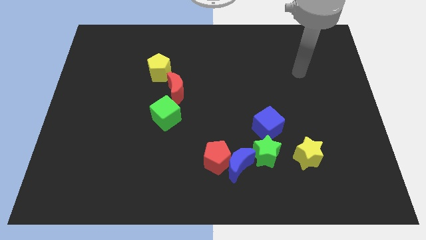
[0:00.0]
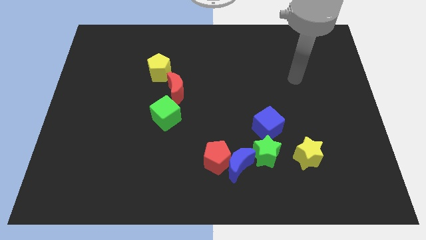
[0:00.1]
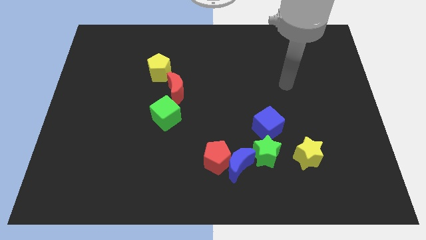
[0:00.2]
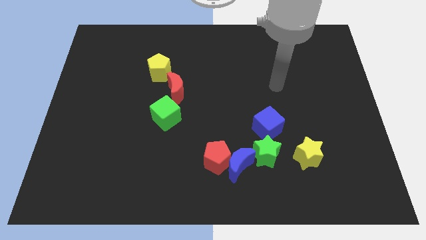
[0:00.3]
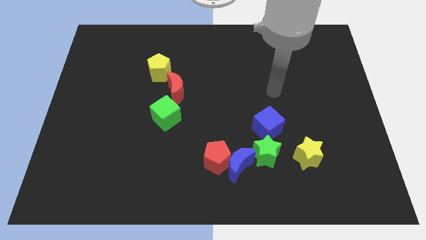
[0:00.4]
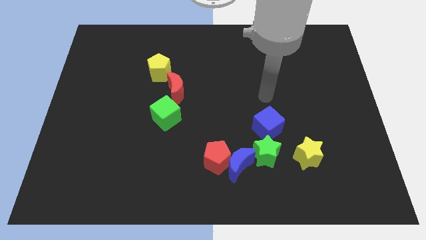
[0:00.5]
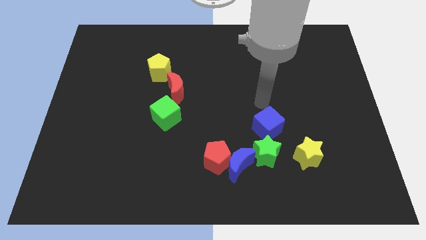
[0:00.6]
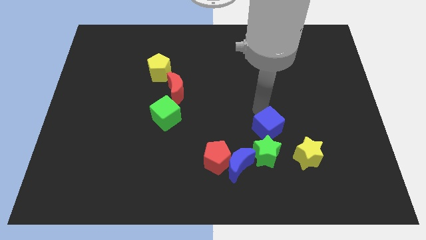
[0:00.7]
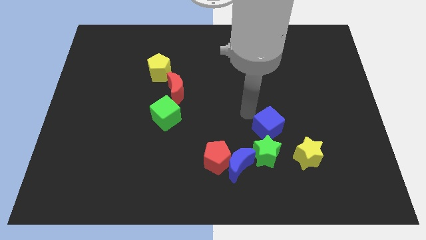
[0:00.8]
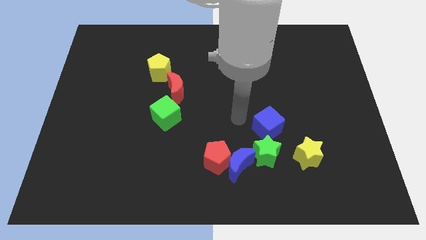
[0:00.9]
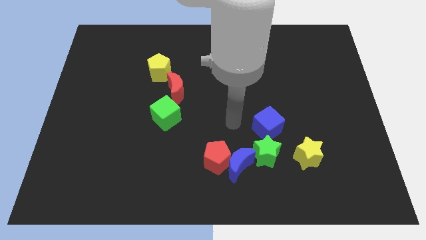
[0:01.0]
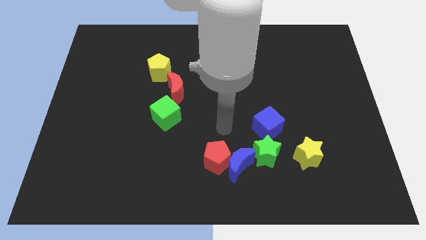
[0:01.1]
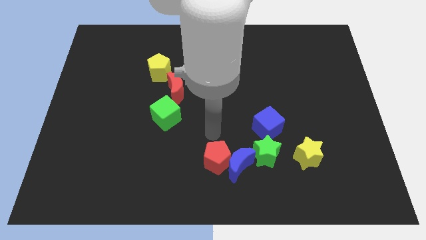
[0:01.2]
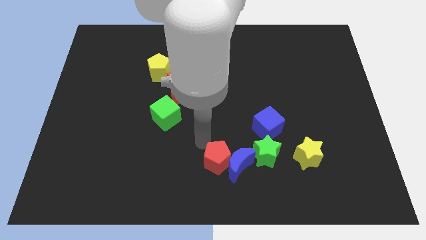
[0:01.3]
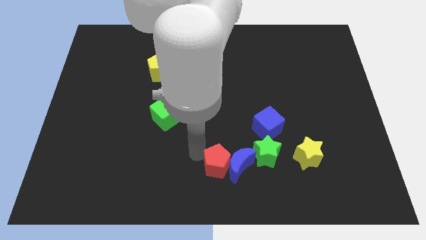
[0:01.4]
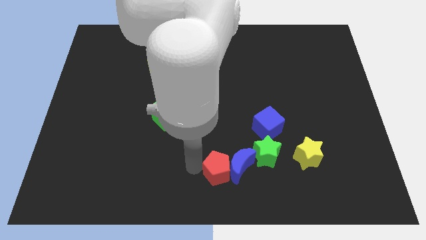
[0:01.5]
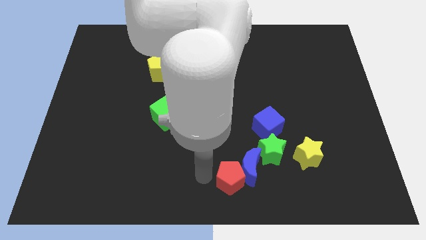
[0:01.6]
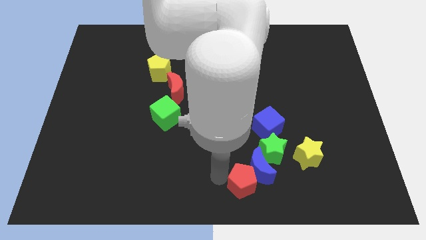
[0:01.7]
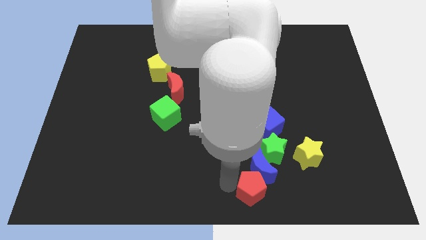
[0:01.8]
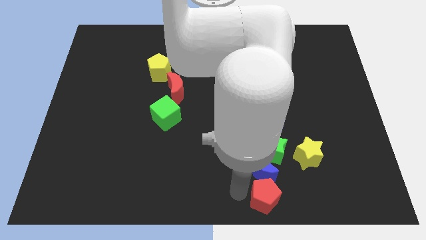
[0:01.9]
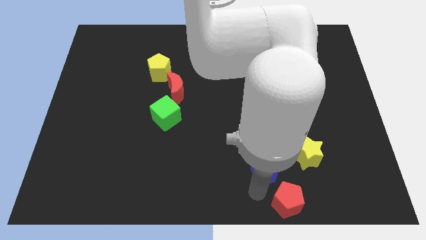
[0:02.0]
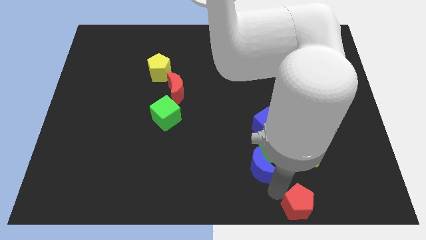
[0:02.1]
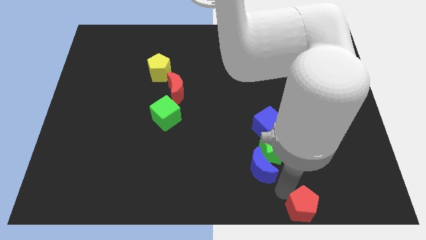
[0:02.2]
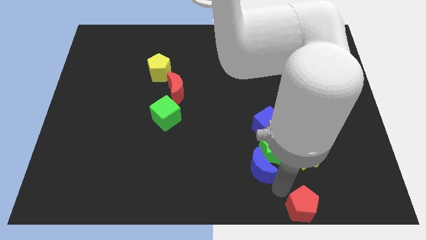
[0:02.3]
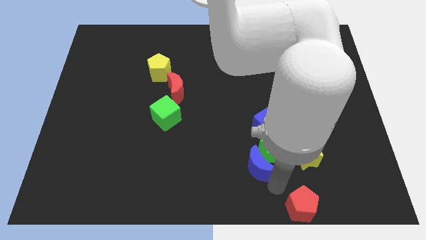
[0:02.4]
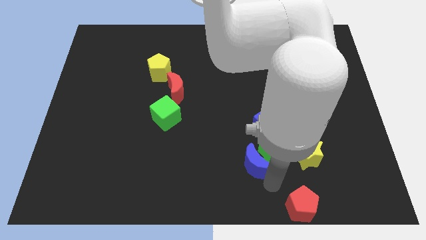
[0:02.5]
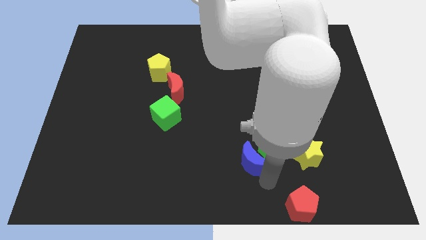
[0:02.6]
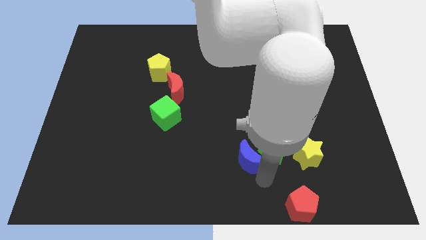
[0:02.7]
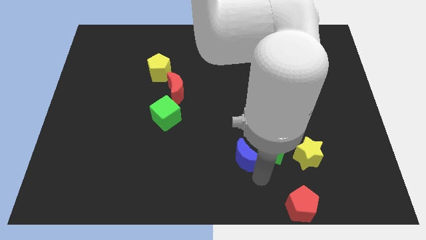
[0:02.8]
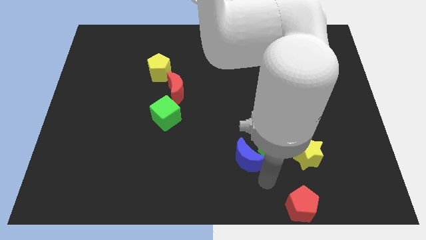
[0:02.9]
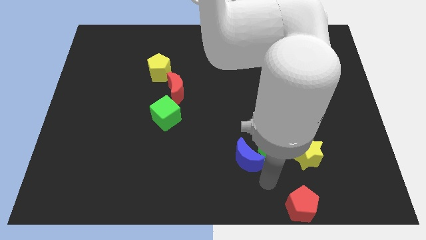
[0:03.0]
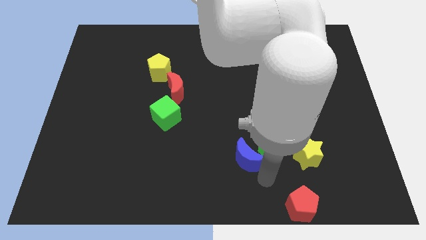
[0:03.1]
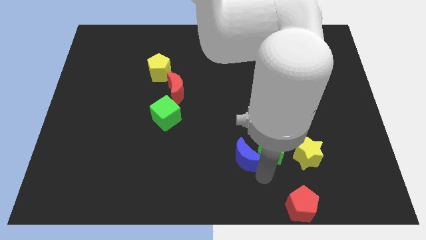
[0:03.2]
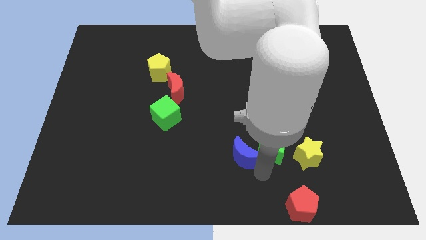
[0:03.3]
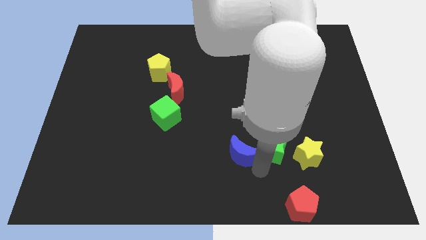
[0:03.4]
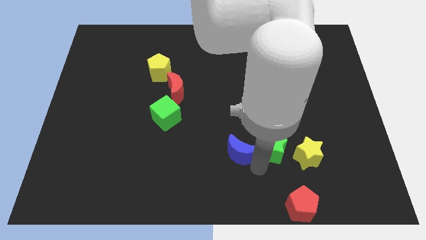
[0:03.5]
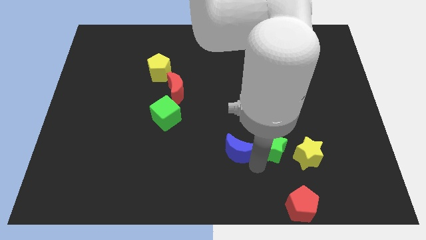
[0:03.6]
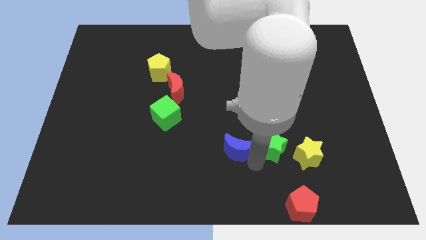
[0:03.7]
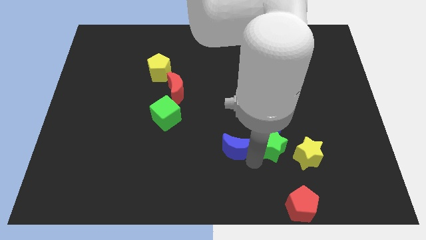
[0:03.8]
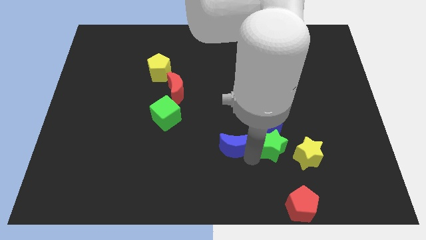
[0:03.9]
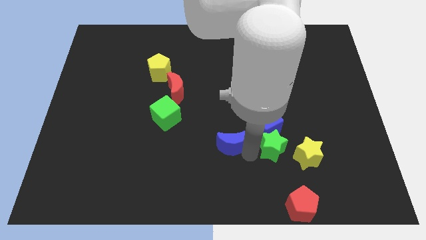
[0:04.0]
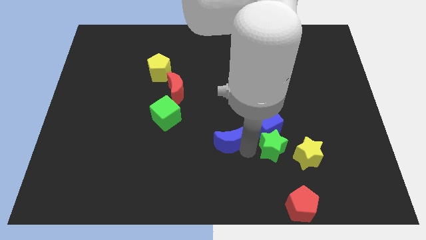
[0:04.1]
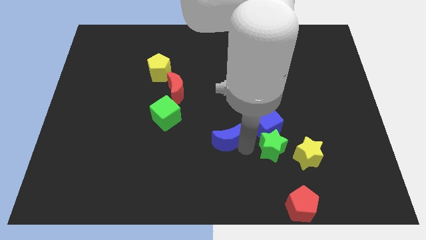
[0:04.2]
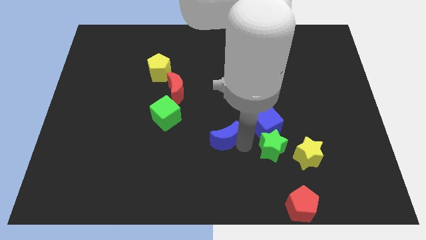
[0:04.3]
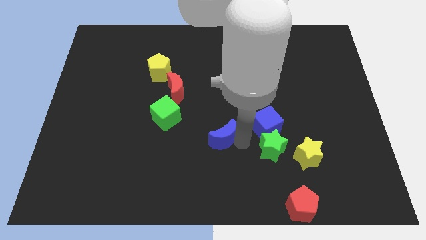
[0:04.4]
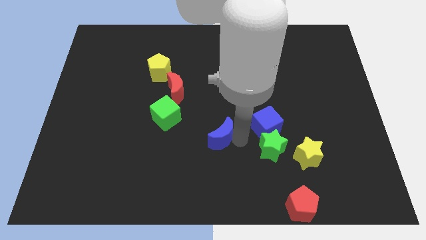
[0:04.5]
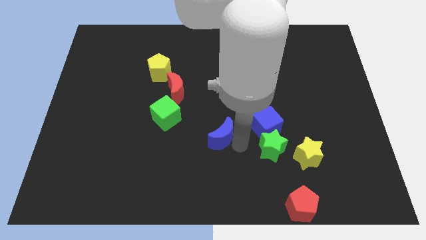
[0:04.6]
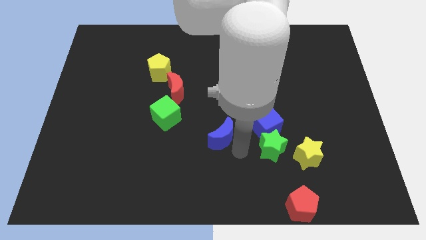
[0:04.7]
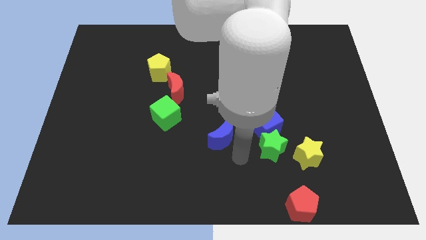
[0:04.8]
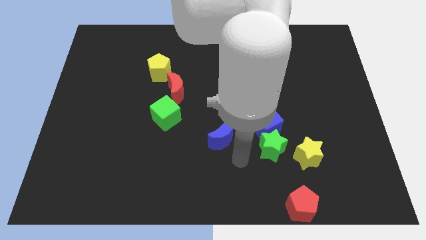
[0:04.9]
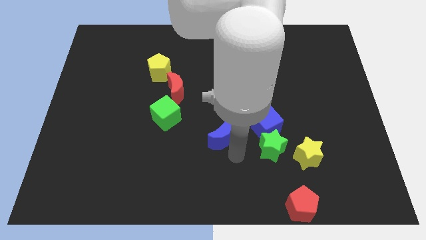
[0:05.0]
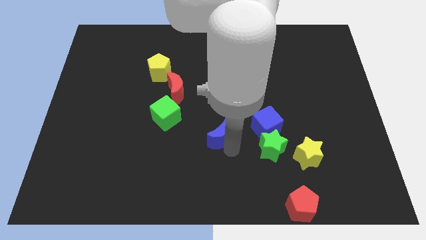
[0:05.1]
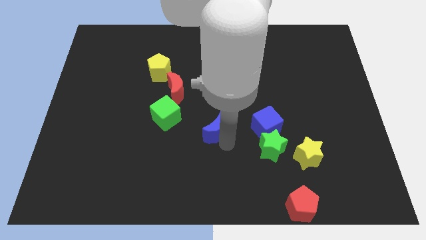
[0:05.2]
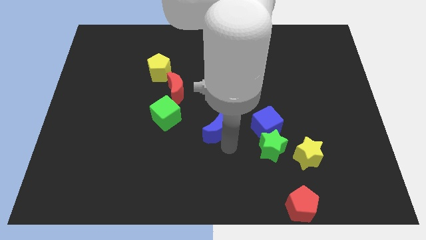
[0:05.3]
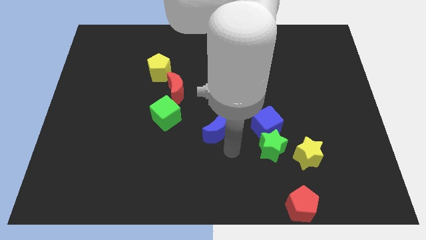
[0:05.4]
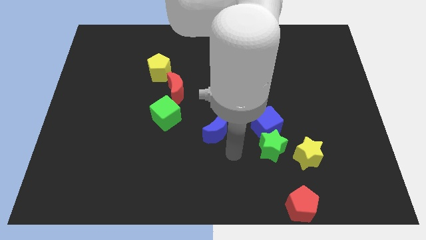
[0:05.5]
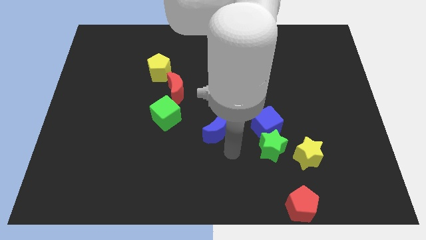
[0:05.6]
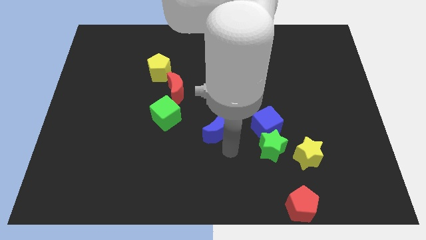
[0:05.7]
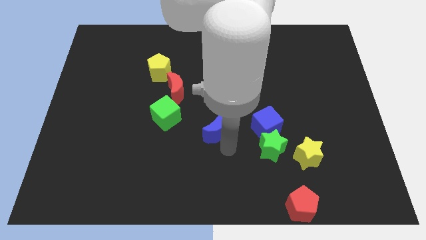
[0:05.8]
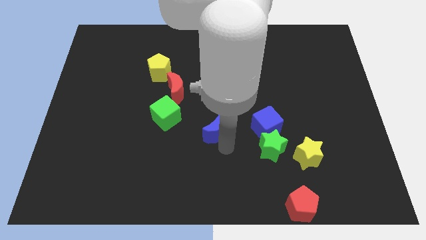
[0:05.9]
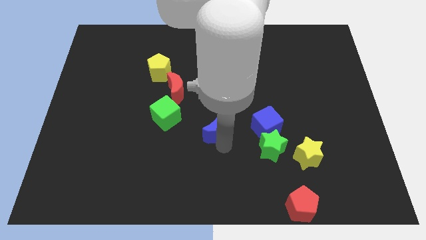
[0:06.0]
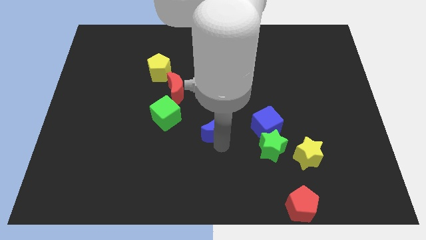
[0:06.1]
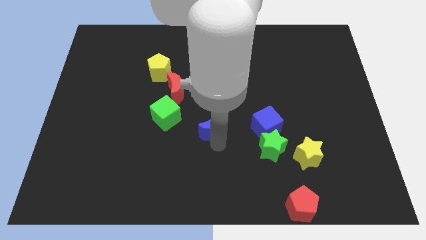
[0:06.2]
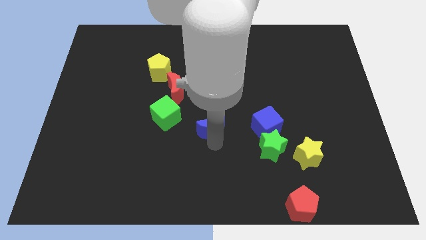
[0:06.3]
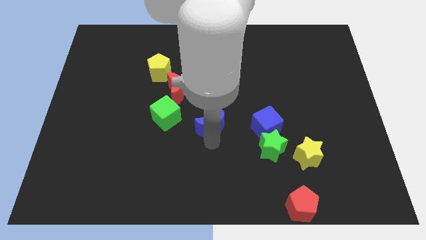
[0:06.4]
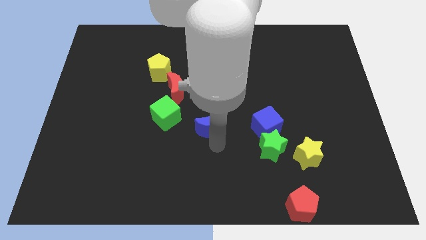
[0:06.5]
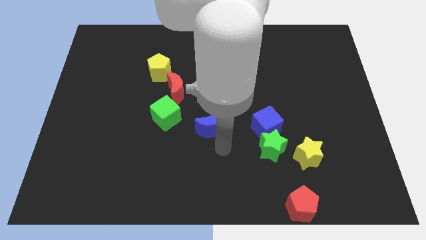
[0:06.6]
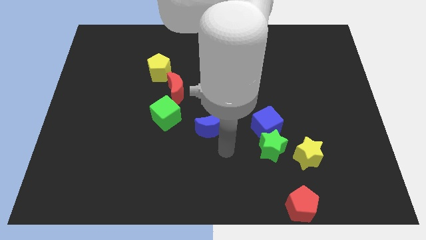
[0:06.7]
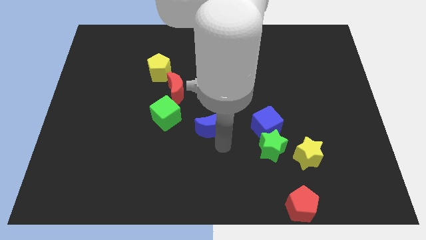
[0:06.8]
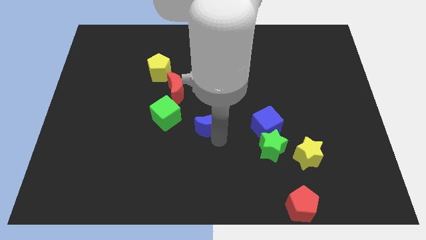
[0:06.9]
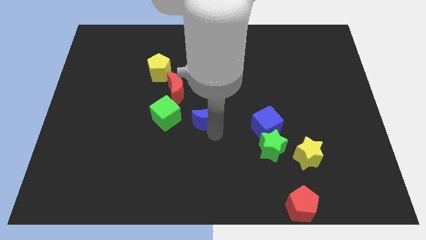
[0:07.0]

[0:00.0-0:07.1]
slide the blue moon to the bottom right side of the red moon

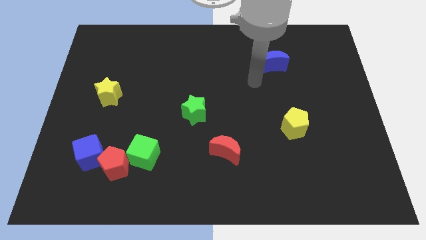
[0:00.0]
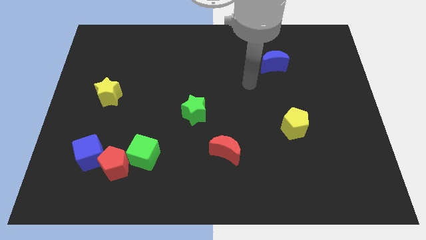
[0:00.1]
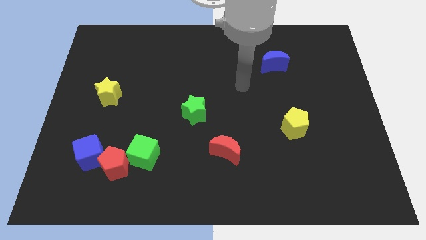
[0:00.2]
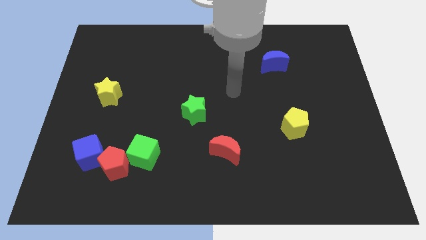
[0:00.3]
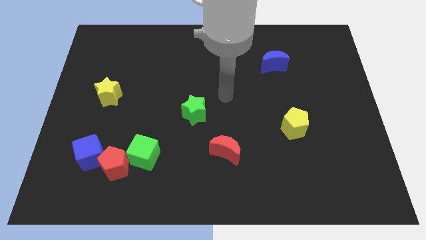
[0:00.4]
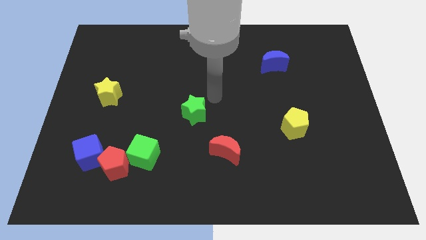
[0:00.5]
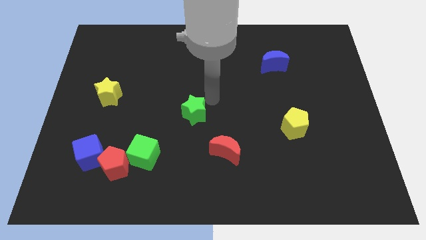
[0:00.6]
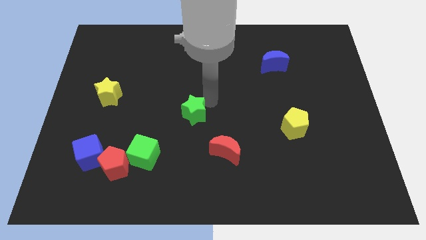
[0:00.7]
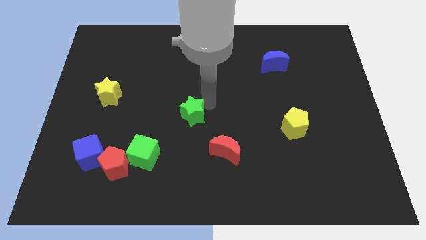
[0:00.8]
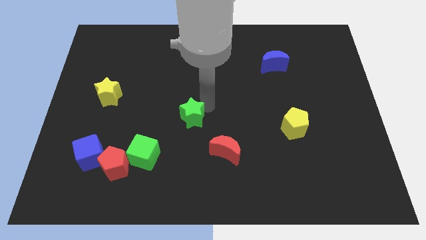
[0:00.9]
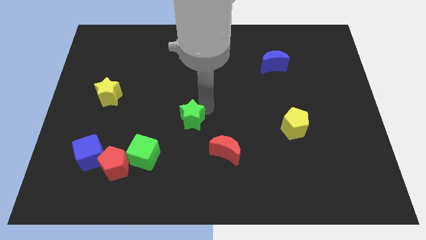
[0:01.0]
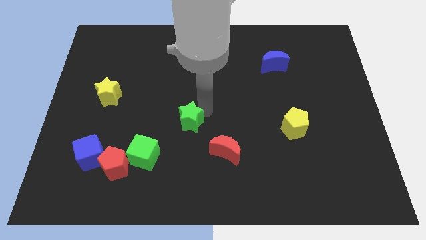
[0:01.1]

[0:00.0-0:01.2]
slide the green star to the top right of the green cube
